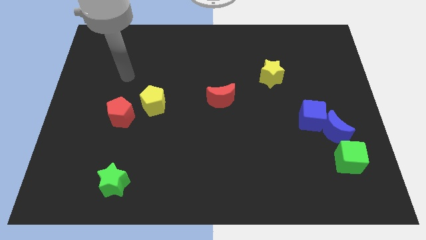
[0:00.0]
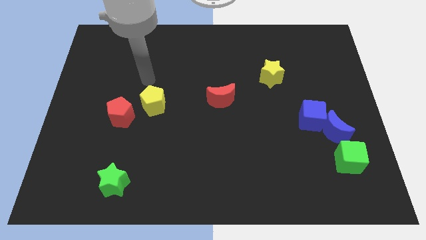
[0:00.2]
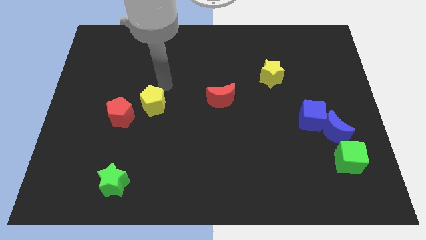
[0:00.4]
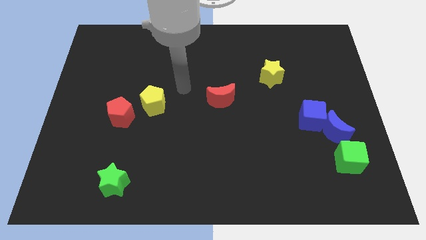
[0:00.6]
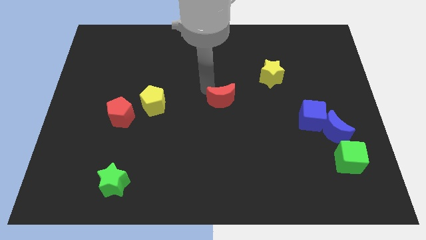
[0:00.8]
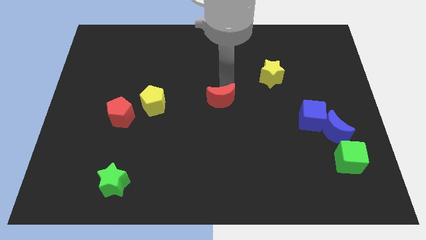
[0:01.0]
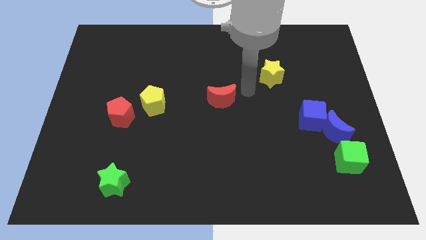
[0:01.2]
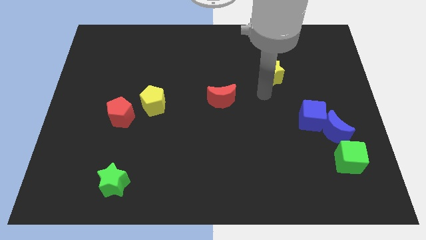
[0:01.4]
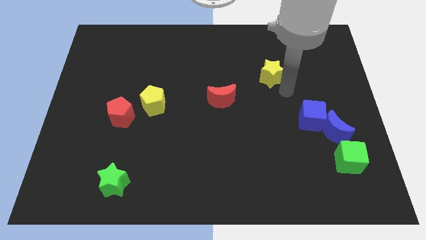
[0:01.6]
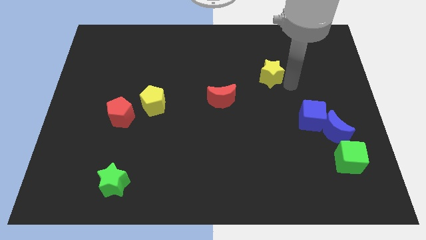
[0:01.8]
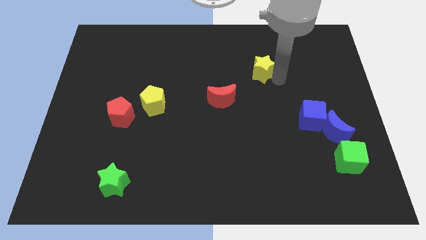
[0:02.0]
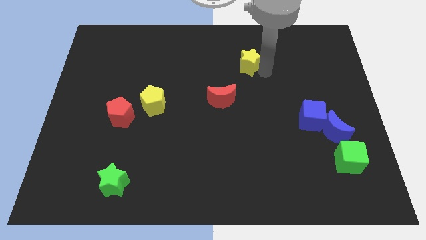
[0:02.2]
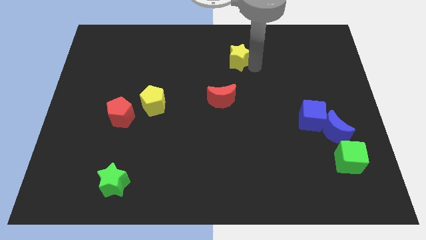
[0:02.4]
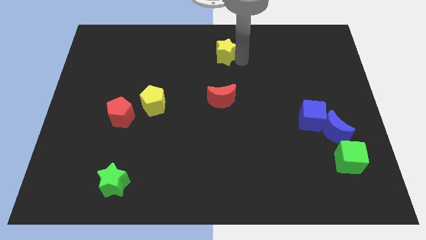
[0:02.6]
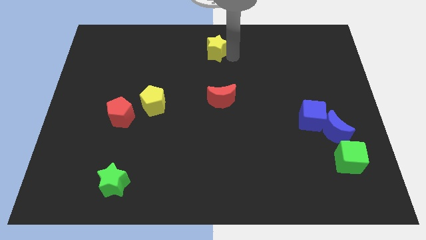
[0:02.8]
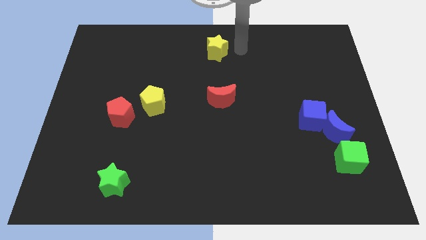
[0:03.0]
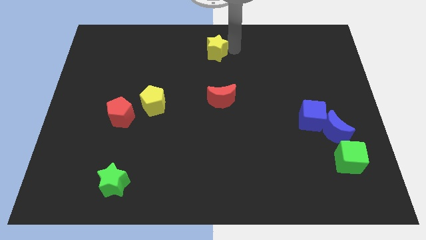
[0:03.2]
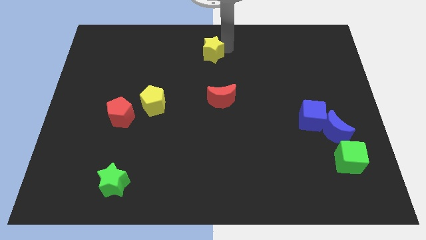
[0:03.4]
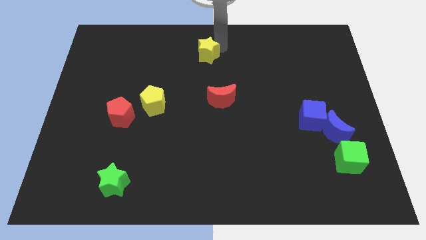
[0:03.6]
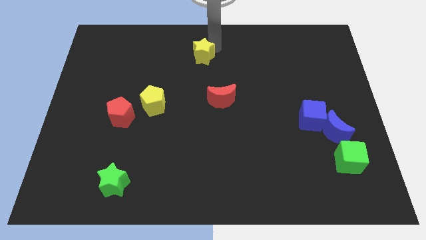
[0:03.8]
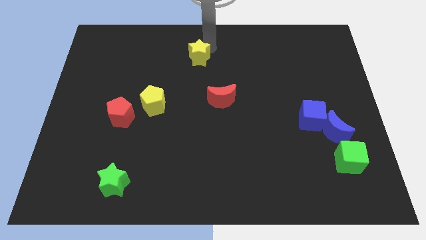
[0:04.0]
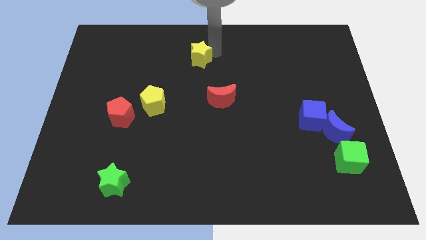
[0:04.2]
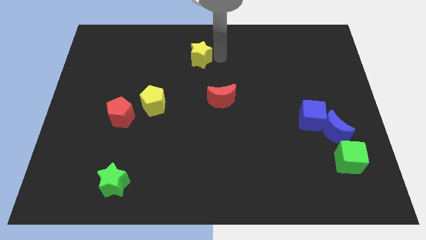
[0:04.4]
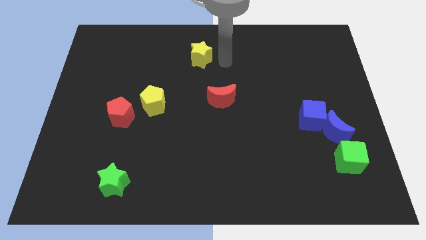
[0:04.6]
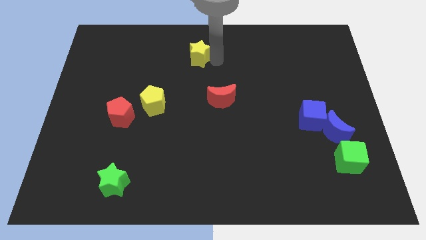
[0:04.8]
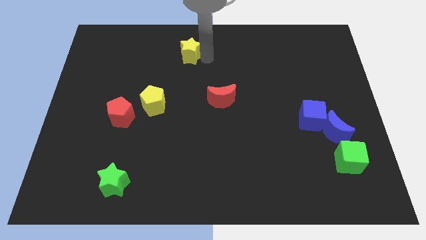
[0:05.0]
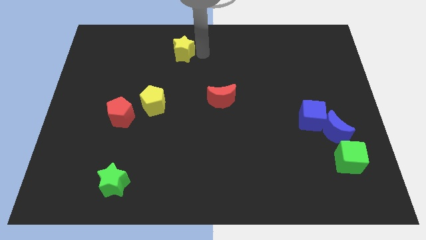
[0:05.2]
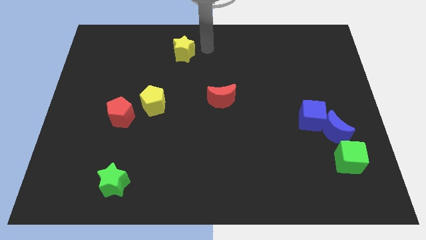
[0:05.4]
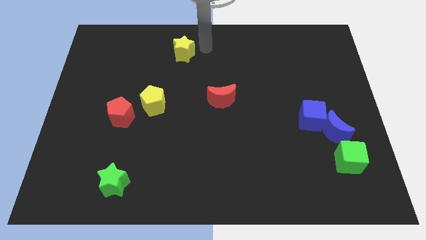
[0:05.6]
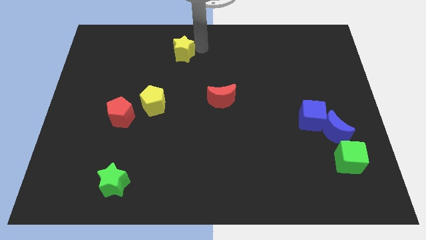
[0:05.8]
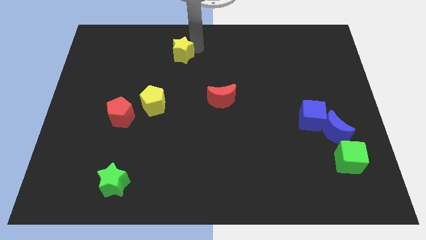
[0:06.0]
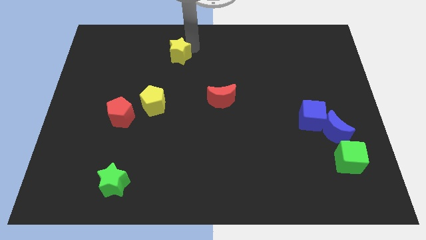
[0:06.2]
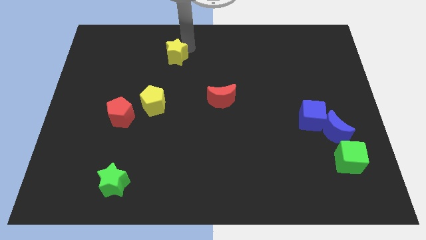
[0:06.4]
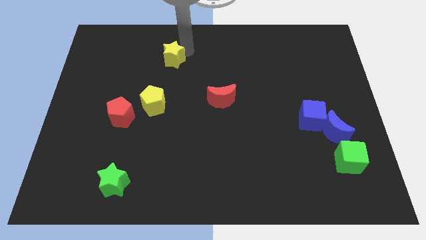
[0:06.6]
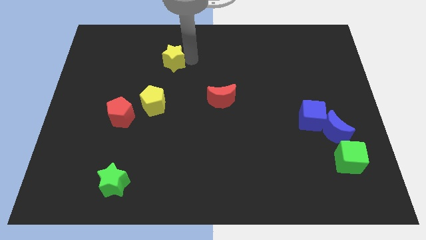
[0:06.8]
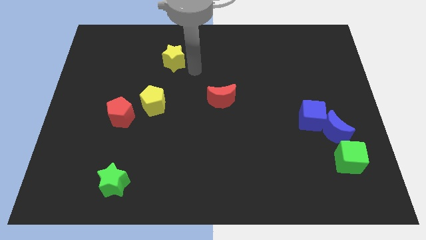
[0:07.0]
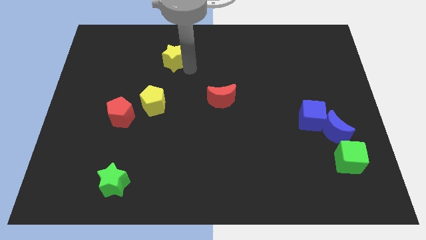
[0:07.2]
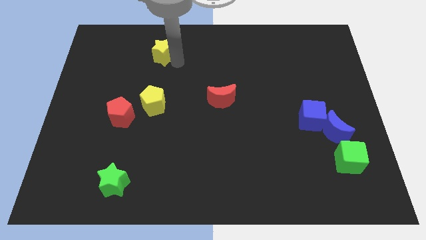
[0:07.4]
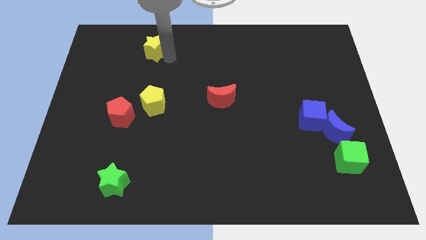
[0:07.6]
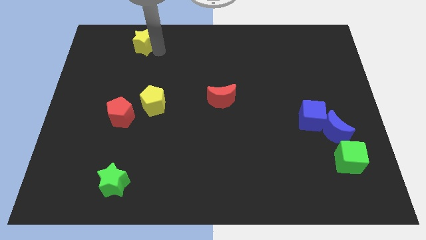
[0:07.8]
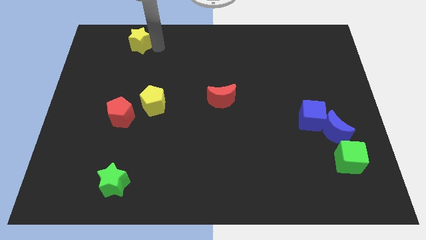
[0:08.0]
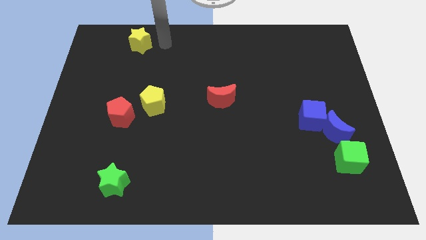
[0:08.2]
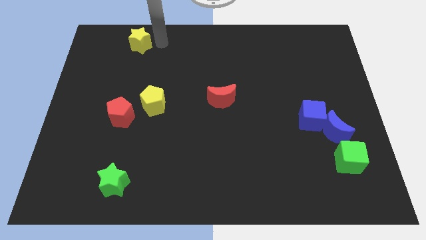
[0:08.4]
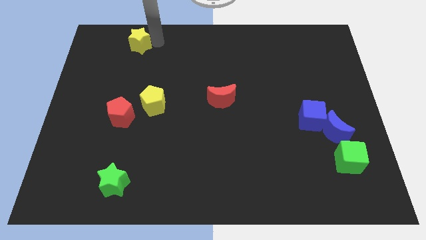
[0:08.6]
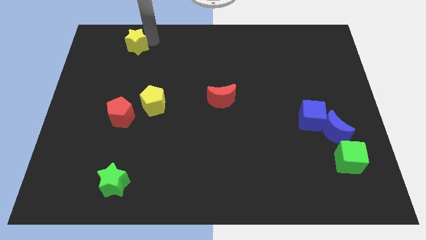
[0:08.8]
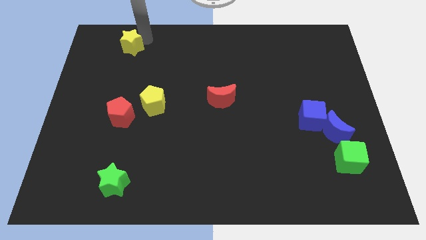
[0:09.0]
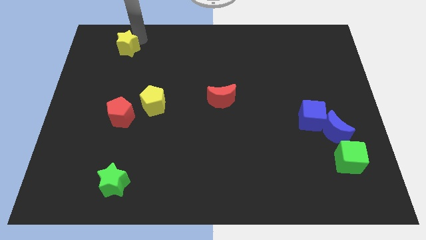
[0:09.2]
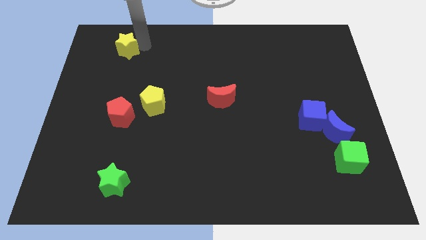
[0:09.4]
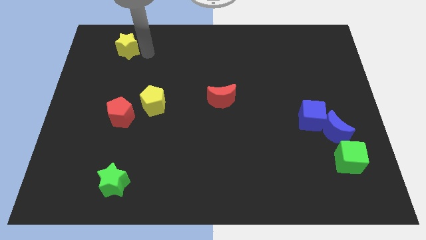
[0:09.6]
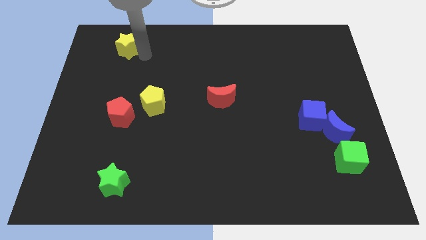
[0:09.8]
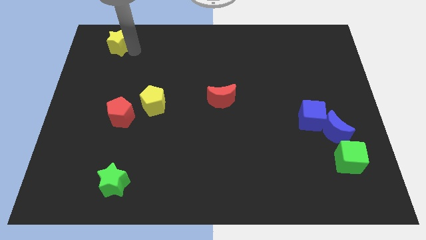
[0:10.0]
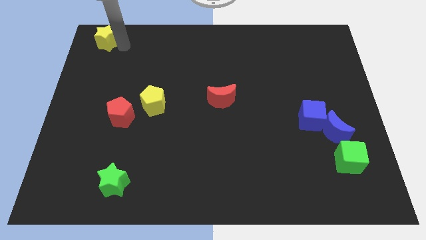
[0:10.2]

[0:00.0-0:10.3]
move the yellow star to the top left corner

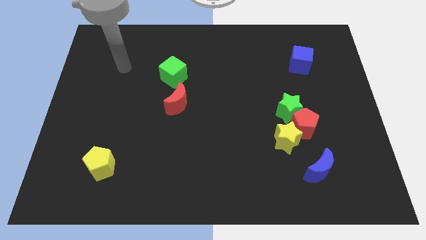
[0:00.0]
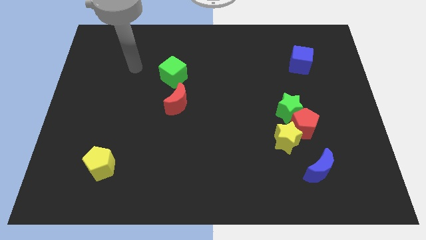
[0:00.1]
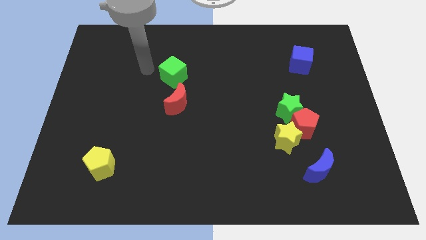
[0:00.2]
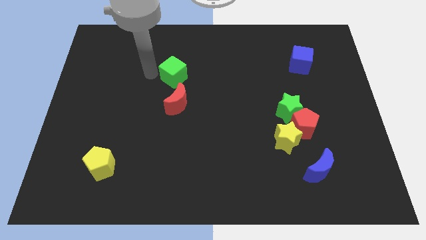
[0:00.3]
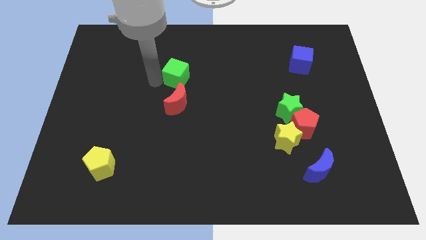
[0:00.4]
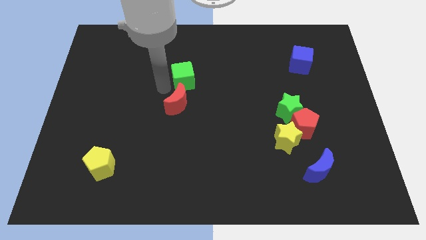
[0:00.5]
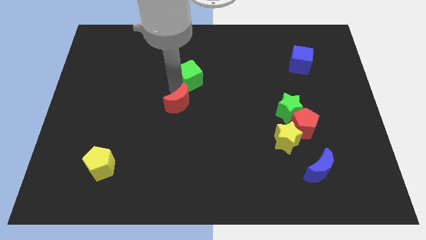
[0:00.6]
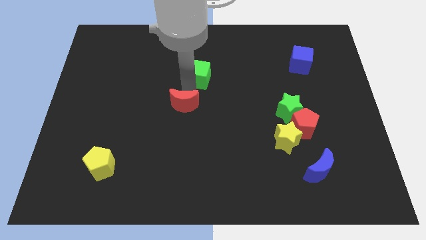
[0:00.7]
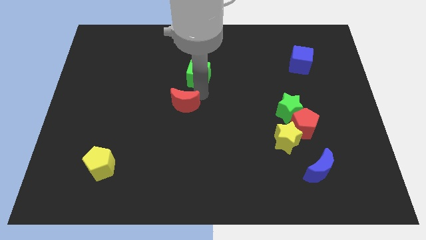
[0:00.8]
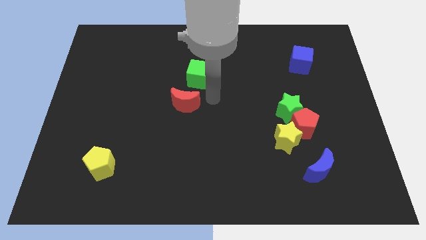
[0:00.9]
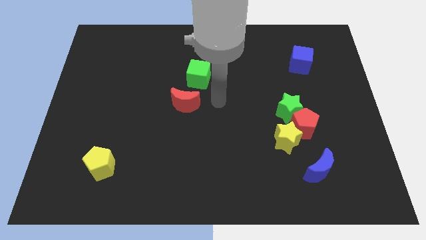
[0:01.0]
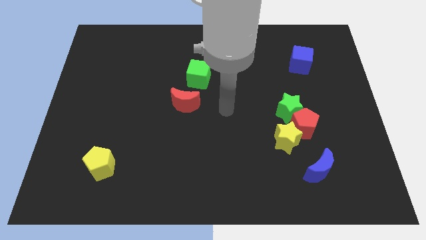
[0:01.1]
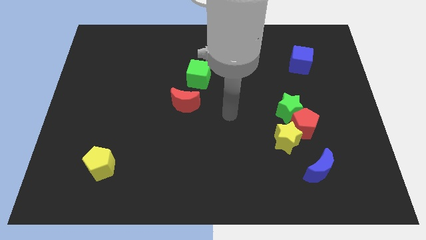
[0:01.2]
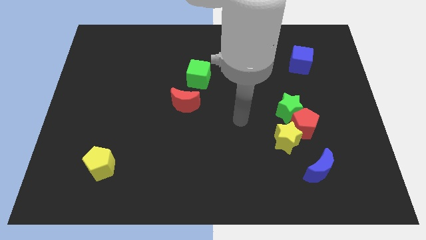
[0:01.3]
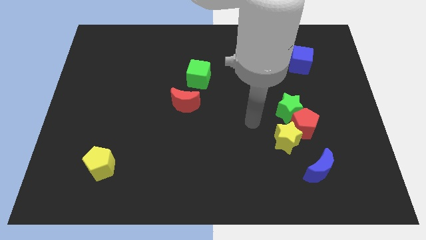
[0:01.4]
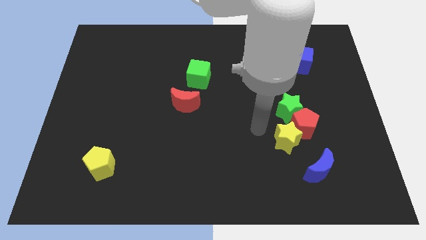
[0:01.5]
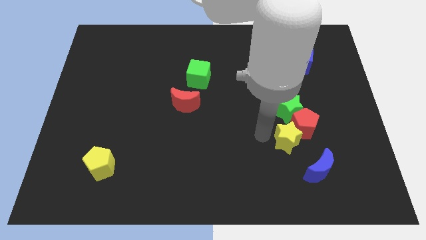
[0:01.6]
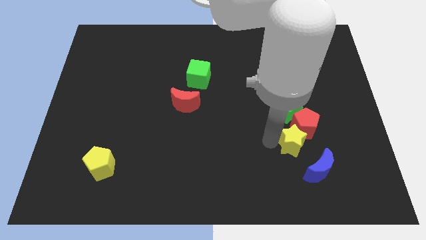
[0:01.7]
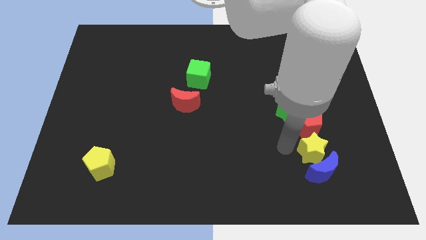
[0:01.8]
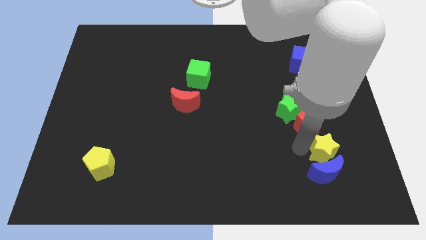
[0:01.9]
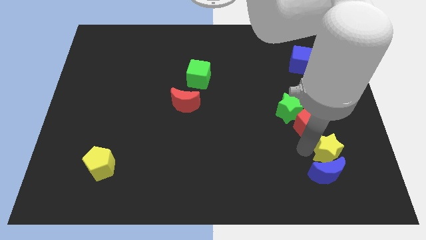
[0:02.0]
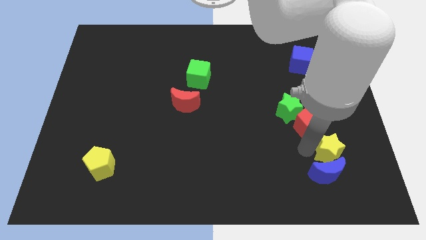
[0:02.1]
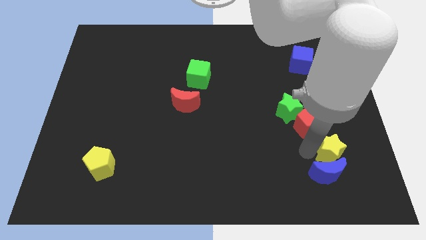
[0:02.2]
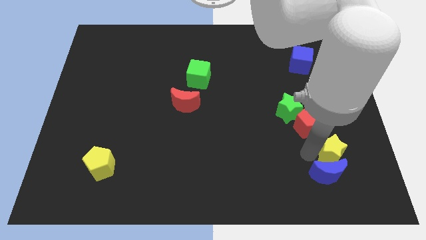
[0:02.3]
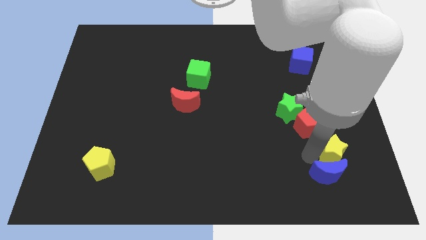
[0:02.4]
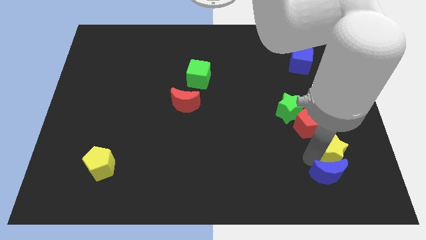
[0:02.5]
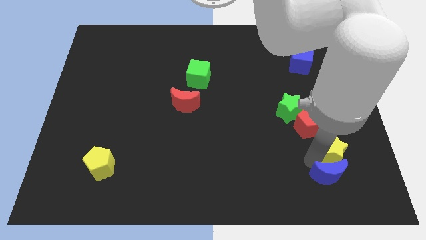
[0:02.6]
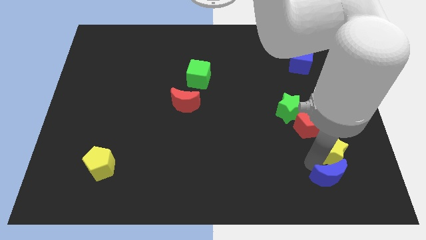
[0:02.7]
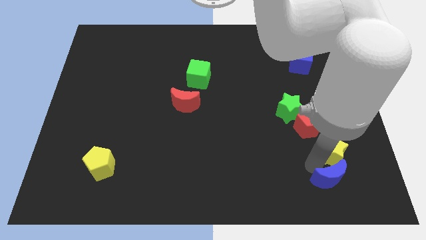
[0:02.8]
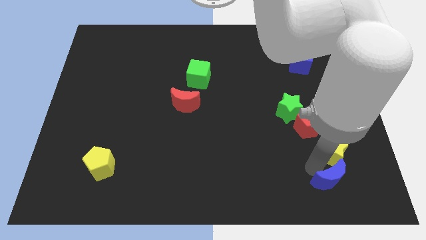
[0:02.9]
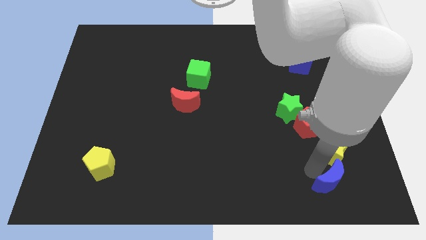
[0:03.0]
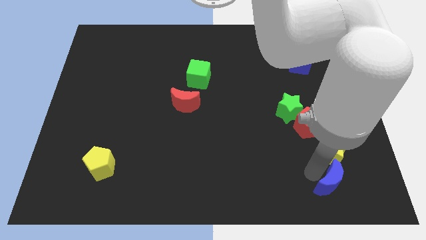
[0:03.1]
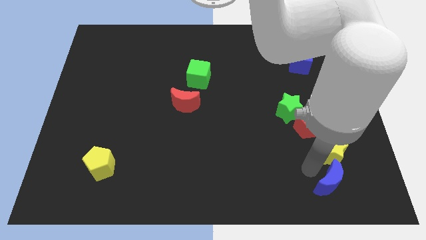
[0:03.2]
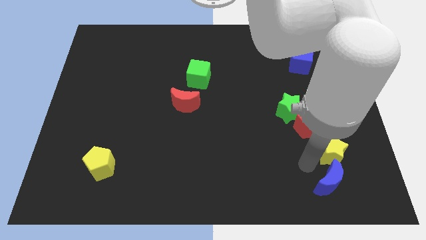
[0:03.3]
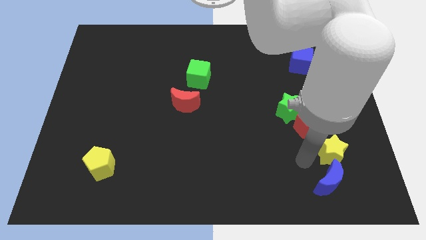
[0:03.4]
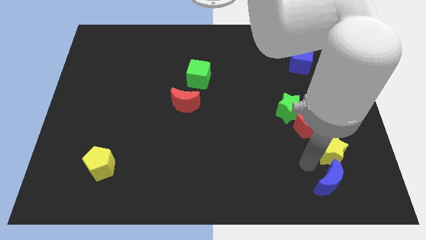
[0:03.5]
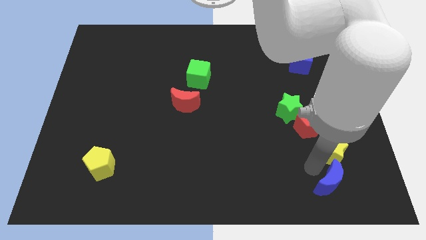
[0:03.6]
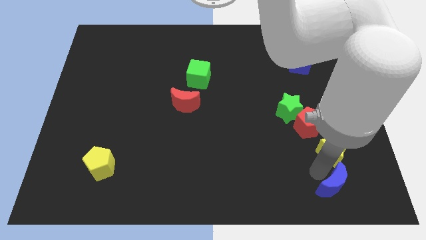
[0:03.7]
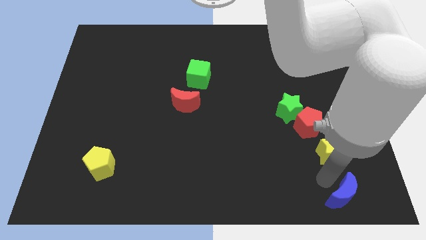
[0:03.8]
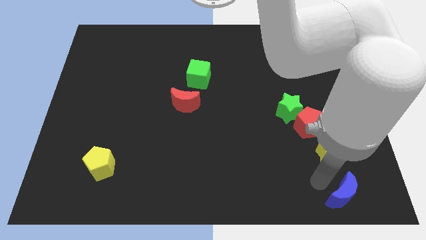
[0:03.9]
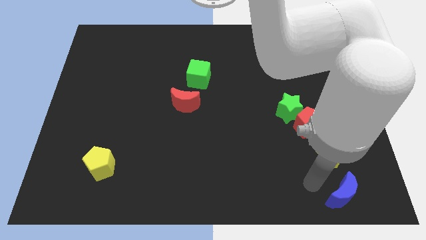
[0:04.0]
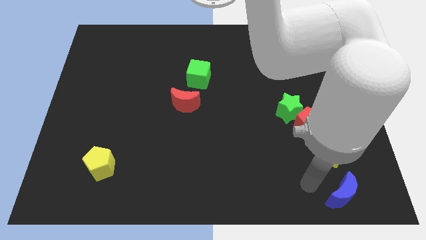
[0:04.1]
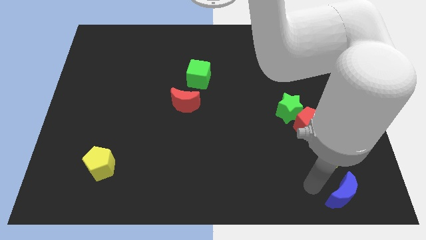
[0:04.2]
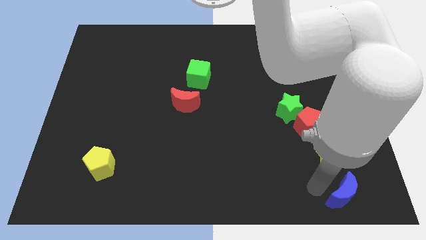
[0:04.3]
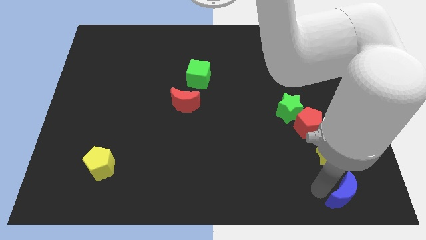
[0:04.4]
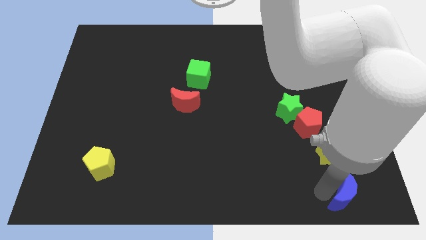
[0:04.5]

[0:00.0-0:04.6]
put the blue moon to the bottom right
